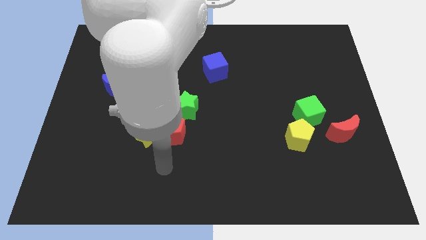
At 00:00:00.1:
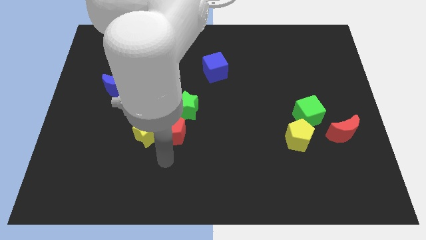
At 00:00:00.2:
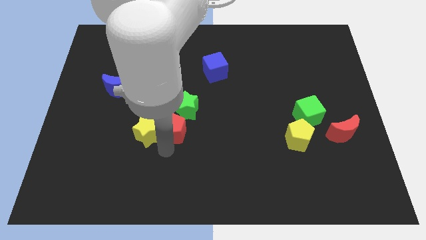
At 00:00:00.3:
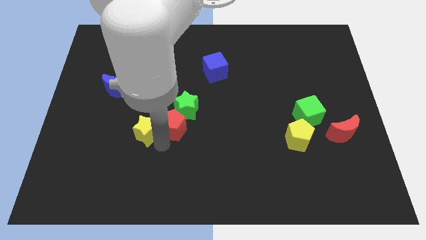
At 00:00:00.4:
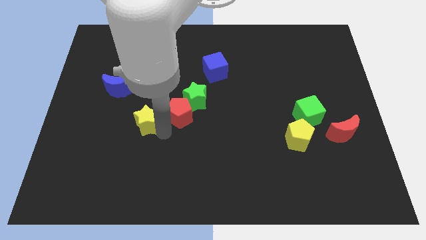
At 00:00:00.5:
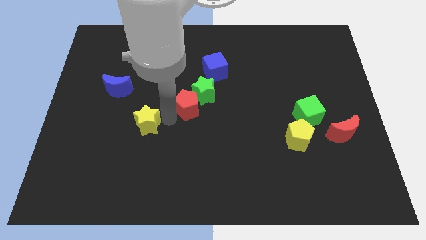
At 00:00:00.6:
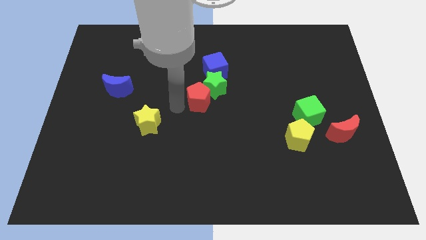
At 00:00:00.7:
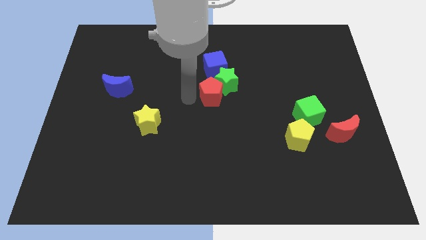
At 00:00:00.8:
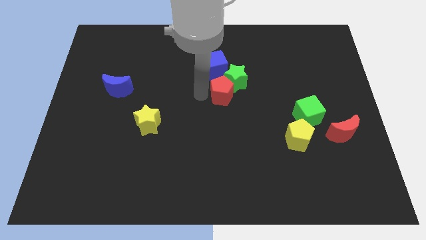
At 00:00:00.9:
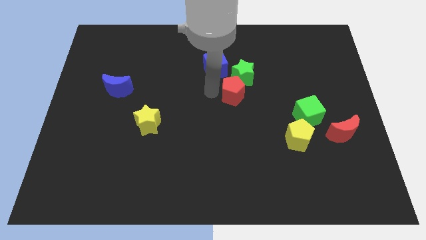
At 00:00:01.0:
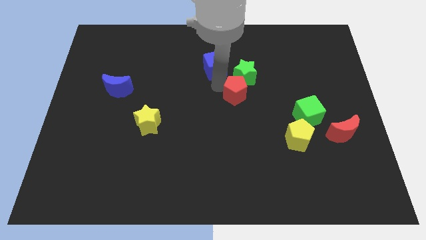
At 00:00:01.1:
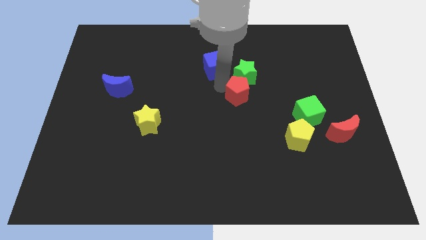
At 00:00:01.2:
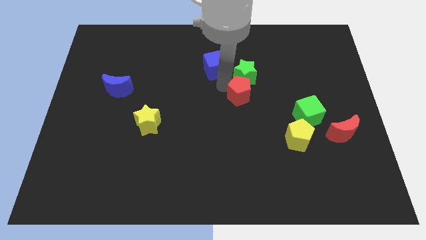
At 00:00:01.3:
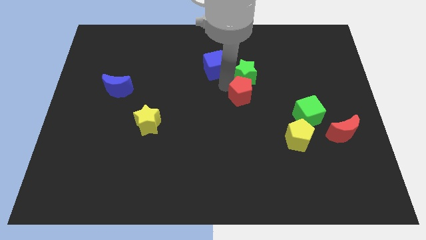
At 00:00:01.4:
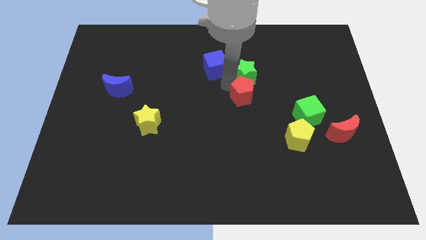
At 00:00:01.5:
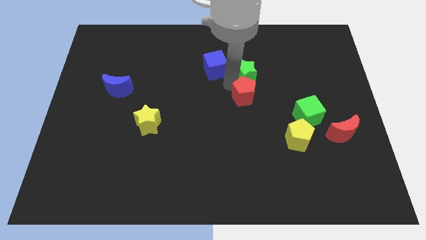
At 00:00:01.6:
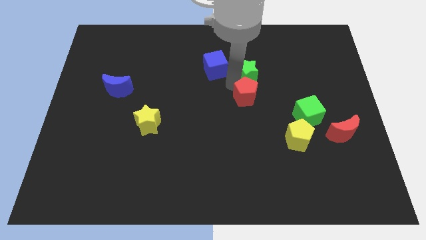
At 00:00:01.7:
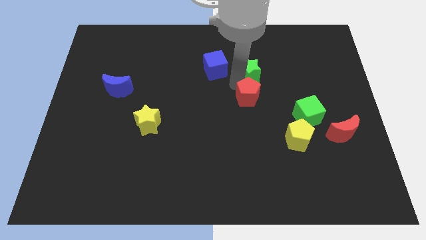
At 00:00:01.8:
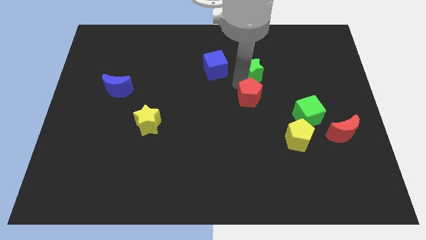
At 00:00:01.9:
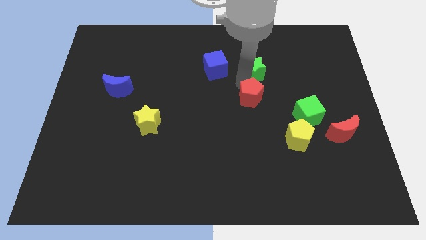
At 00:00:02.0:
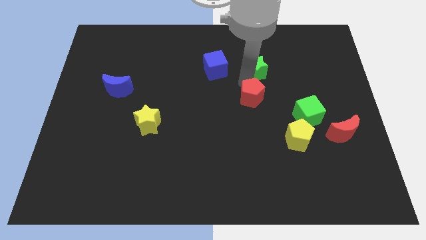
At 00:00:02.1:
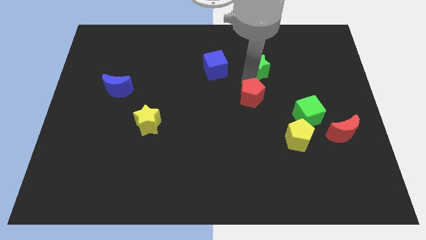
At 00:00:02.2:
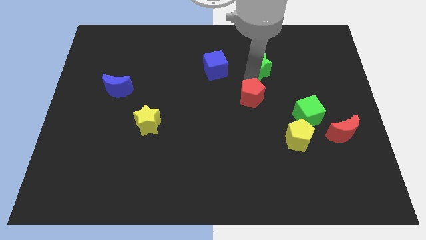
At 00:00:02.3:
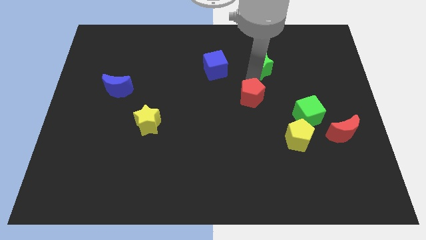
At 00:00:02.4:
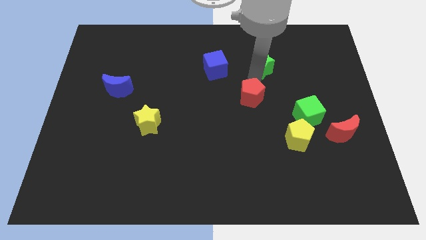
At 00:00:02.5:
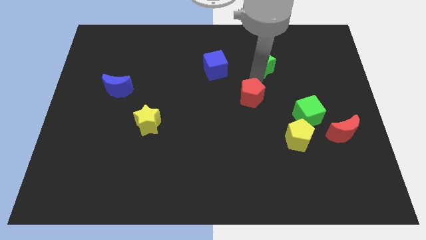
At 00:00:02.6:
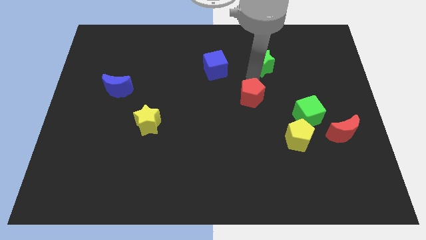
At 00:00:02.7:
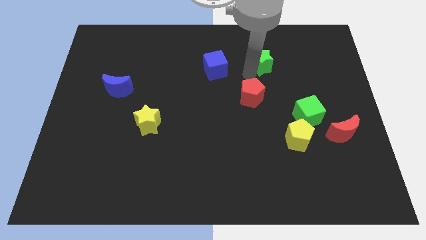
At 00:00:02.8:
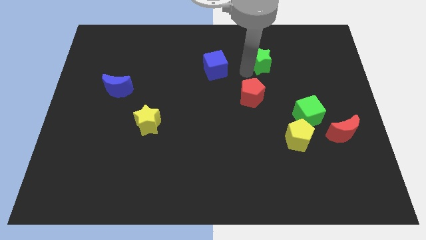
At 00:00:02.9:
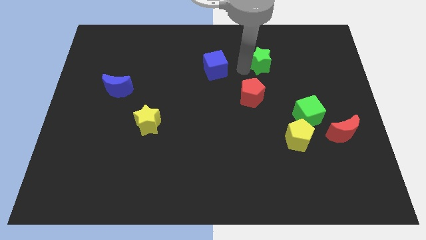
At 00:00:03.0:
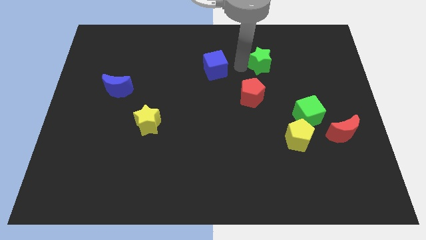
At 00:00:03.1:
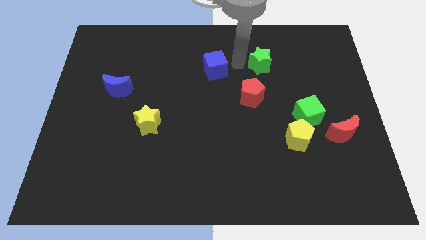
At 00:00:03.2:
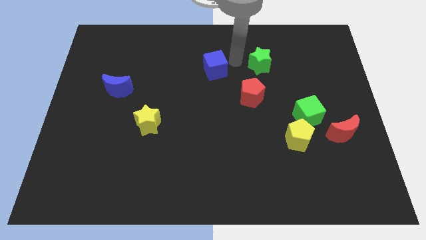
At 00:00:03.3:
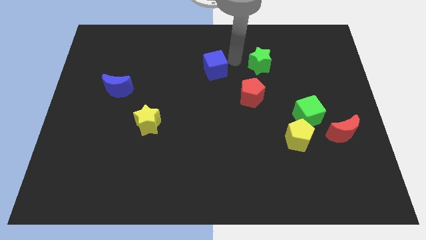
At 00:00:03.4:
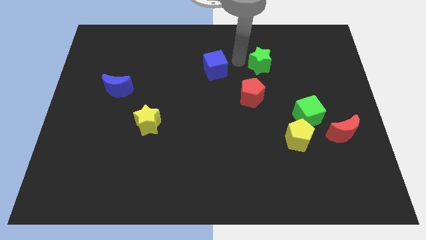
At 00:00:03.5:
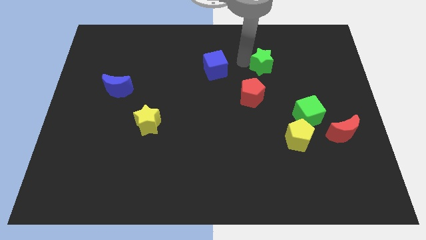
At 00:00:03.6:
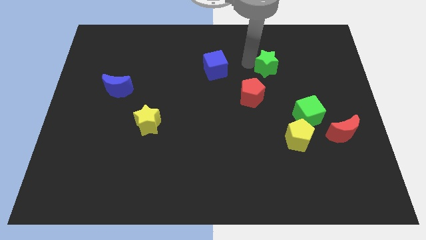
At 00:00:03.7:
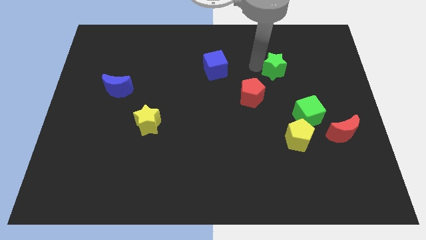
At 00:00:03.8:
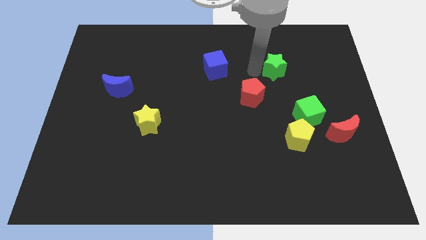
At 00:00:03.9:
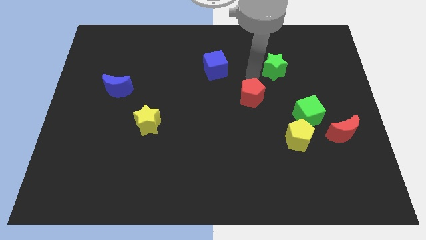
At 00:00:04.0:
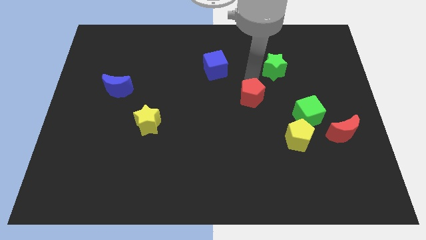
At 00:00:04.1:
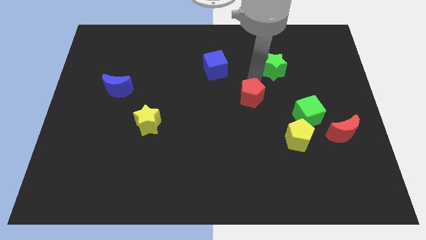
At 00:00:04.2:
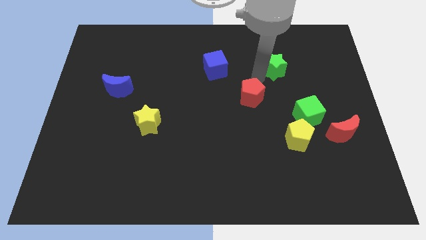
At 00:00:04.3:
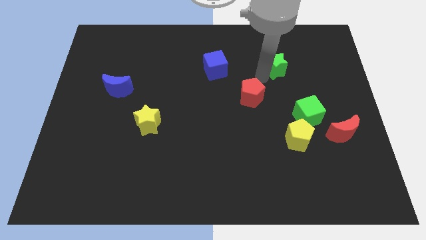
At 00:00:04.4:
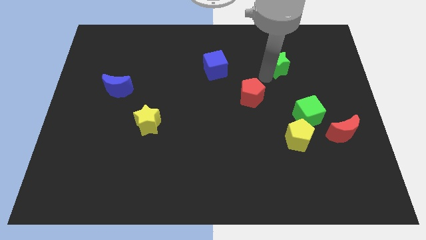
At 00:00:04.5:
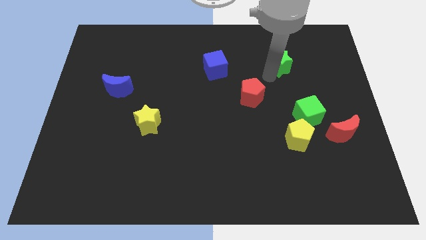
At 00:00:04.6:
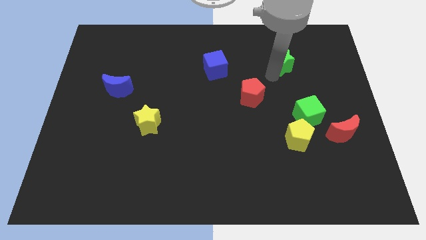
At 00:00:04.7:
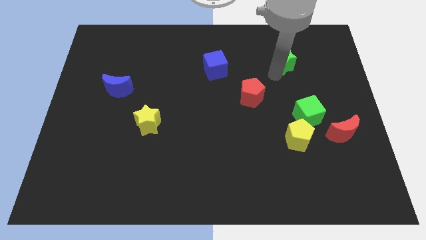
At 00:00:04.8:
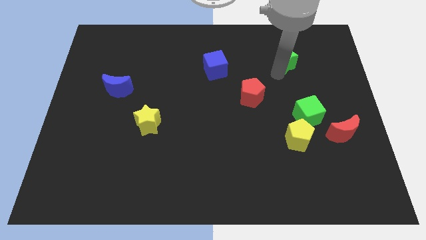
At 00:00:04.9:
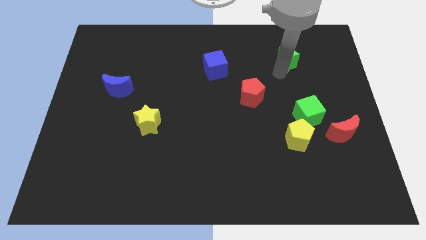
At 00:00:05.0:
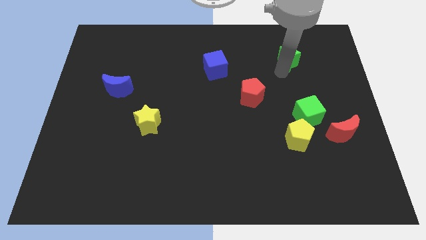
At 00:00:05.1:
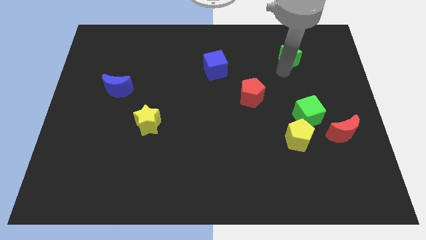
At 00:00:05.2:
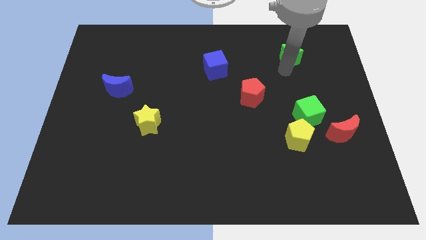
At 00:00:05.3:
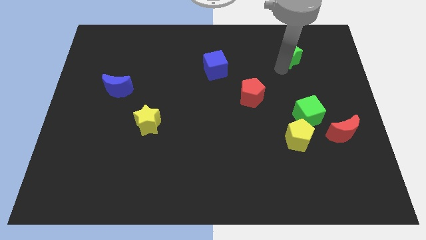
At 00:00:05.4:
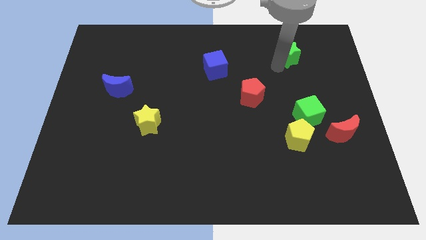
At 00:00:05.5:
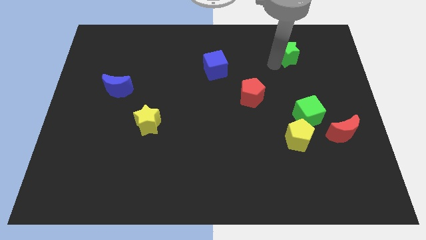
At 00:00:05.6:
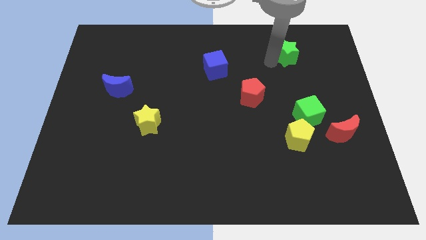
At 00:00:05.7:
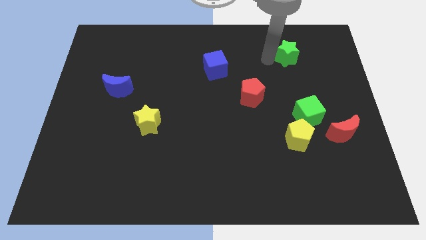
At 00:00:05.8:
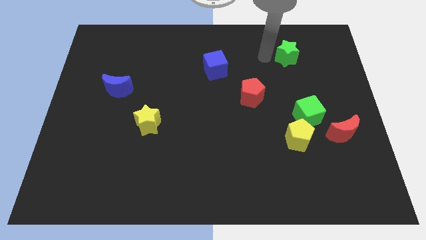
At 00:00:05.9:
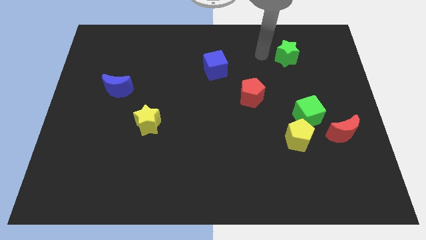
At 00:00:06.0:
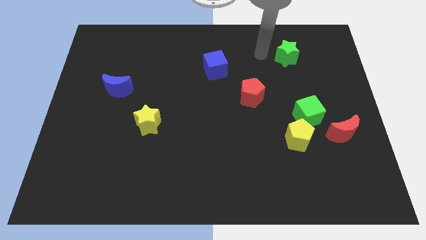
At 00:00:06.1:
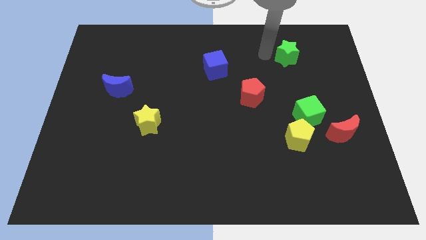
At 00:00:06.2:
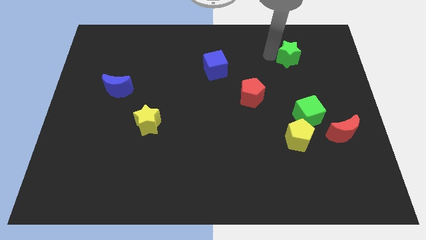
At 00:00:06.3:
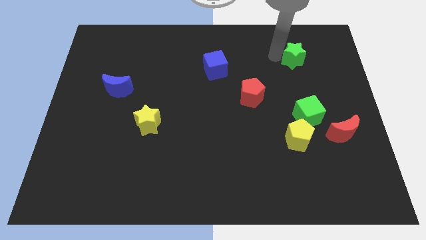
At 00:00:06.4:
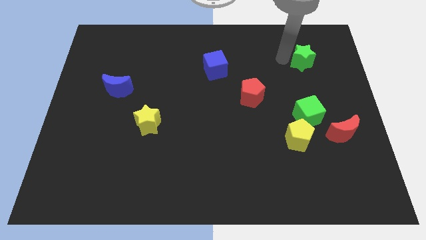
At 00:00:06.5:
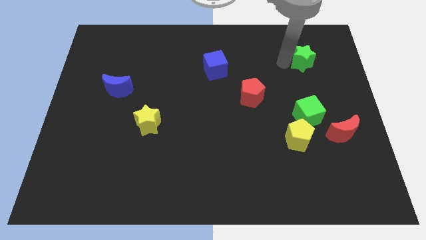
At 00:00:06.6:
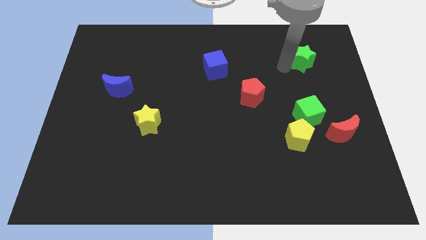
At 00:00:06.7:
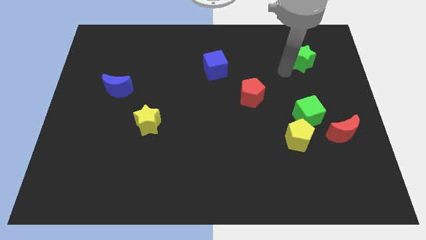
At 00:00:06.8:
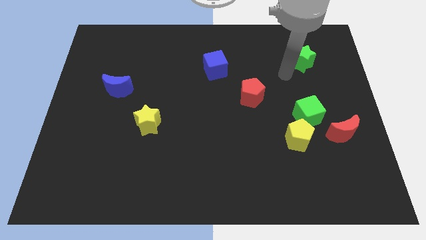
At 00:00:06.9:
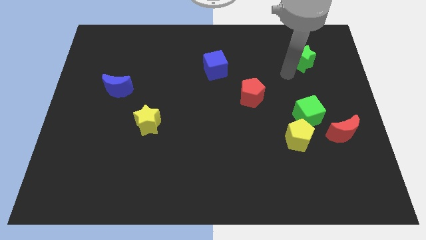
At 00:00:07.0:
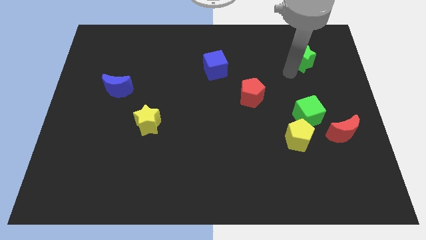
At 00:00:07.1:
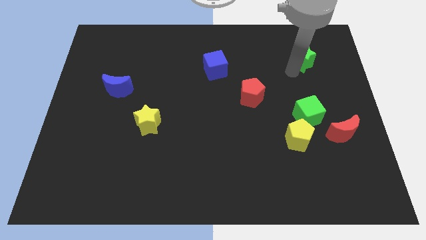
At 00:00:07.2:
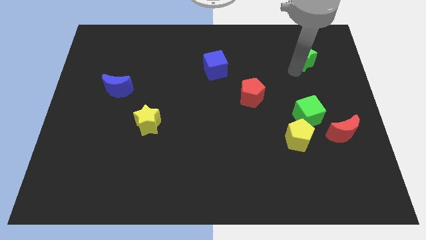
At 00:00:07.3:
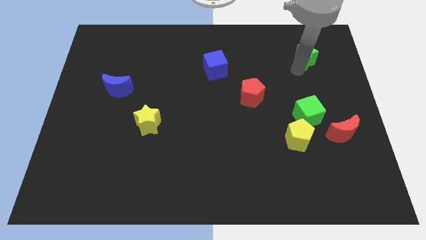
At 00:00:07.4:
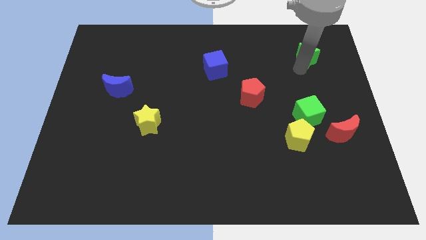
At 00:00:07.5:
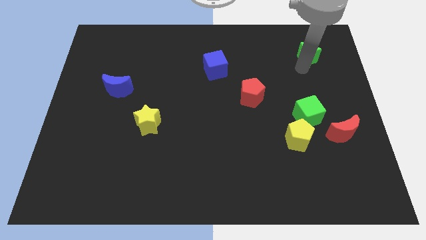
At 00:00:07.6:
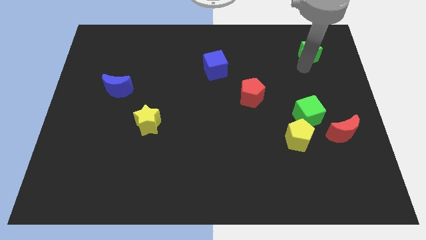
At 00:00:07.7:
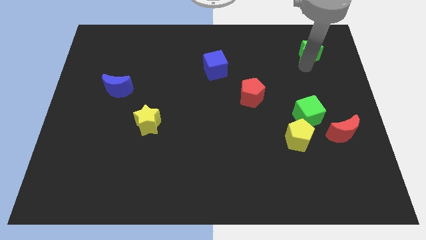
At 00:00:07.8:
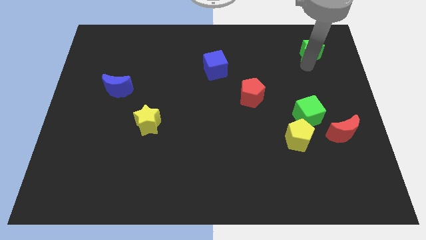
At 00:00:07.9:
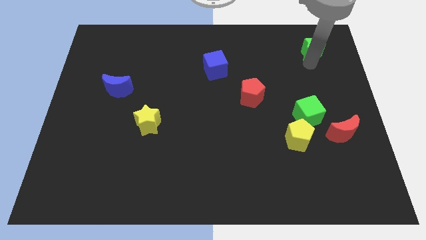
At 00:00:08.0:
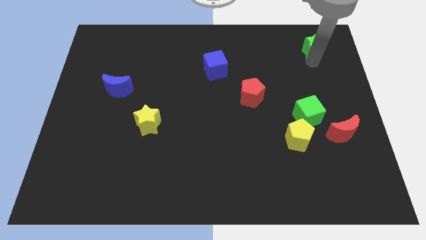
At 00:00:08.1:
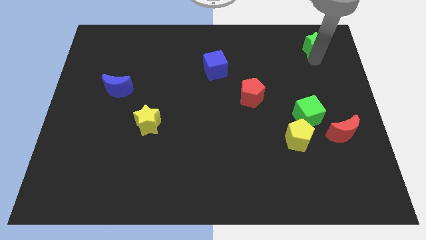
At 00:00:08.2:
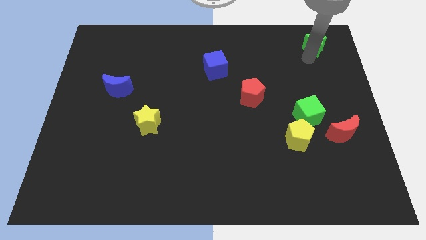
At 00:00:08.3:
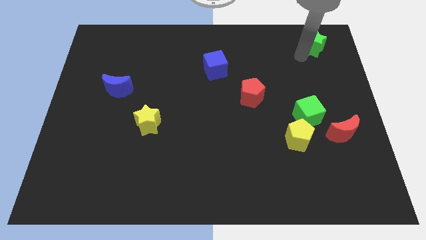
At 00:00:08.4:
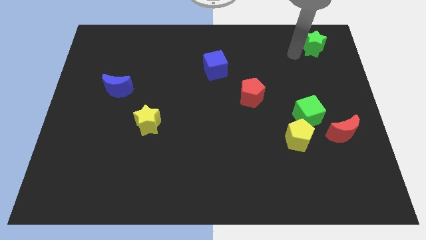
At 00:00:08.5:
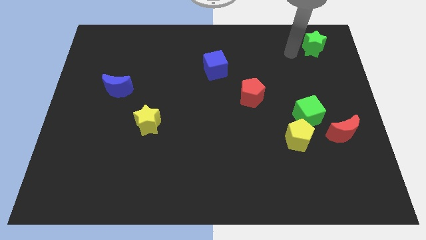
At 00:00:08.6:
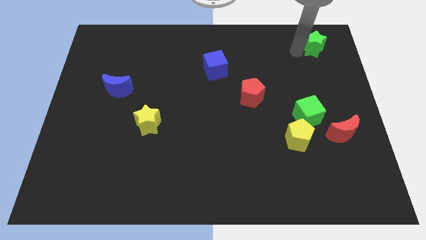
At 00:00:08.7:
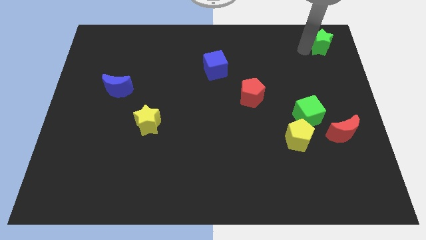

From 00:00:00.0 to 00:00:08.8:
slide the green star to the top right
